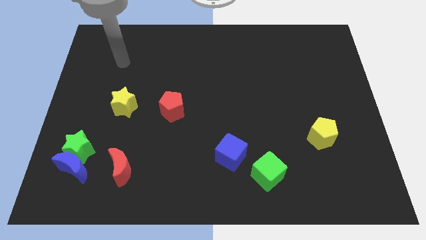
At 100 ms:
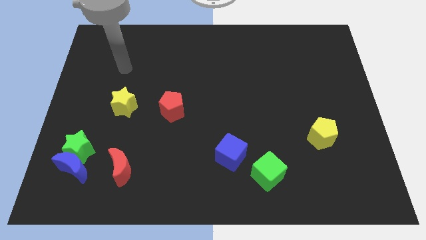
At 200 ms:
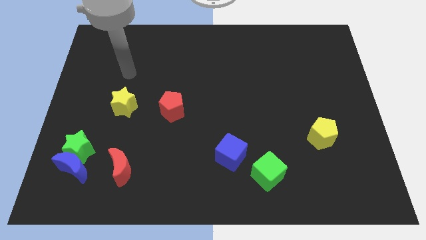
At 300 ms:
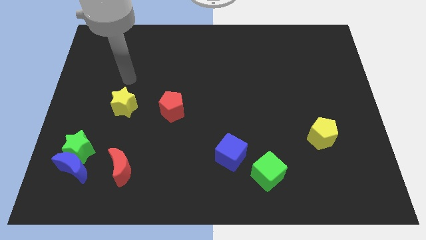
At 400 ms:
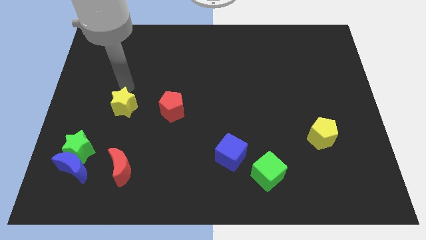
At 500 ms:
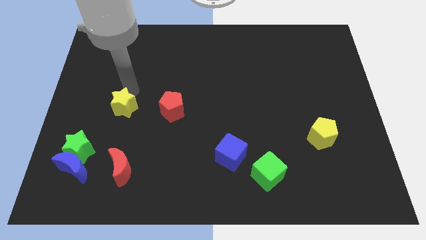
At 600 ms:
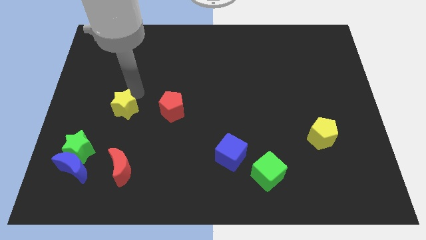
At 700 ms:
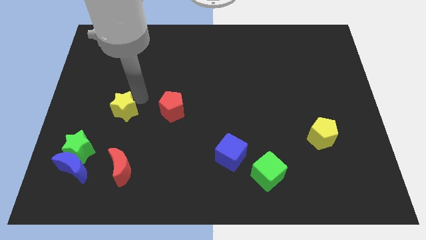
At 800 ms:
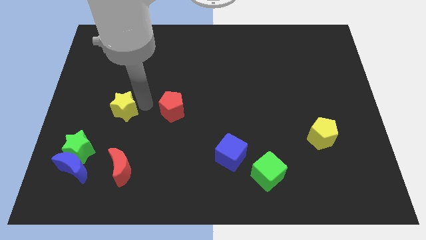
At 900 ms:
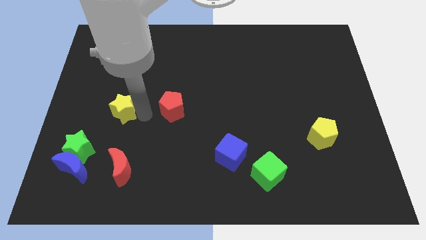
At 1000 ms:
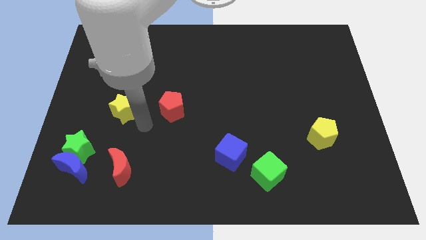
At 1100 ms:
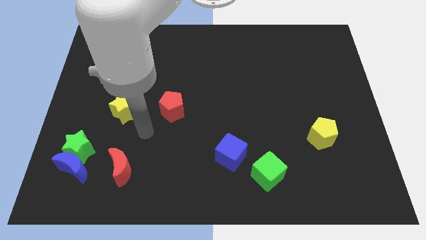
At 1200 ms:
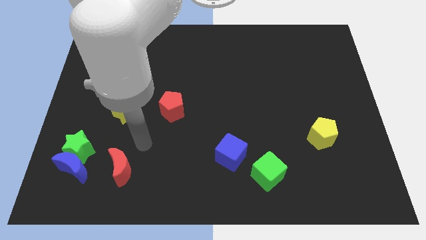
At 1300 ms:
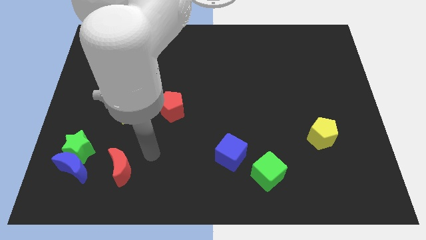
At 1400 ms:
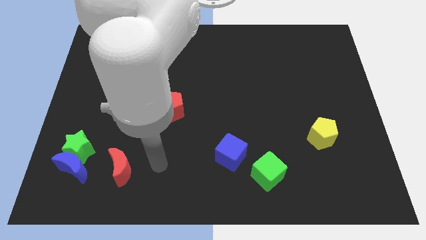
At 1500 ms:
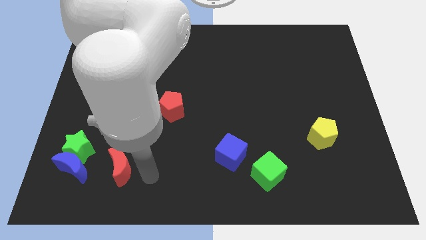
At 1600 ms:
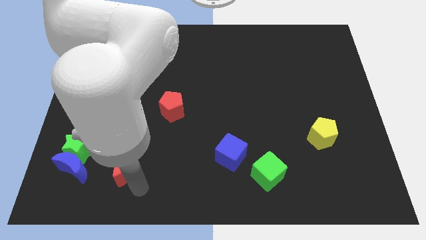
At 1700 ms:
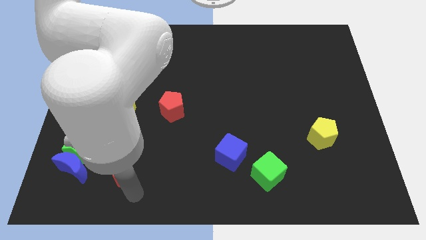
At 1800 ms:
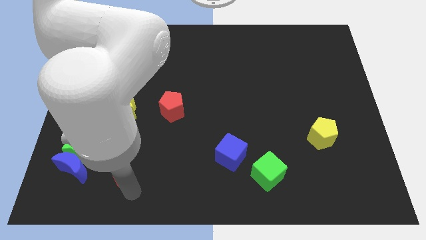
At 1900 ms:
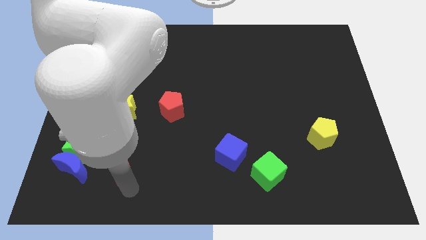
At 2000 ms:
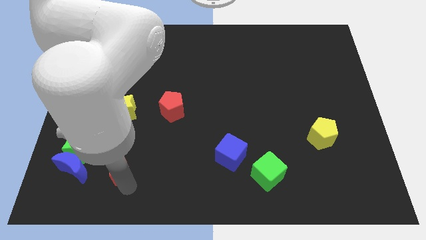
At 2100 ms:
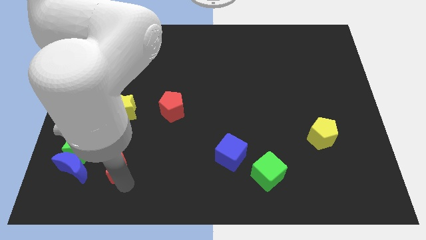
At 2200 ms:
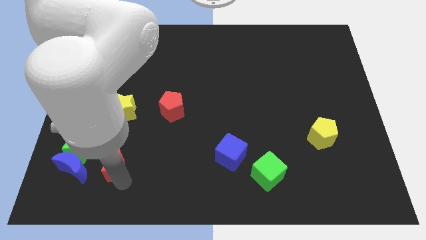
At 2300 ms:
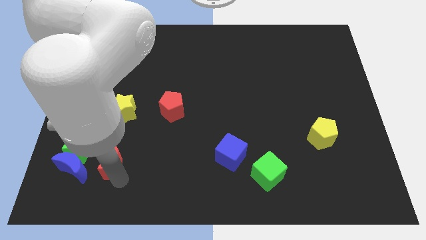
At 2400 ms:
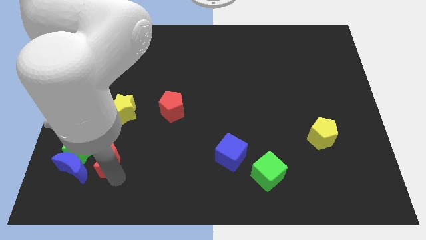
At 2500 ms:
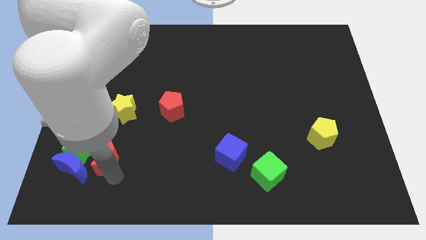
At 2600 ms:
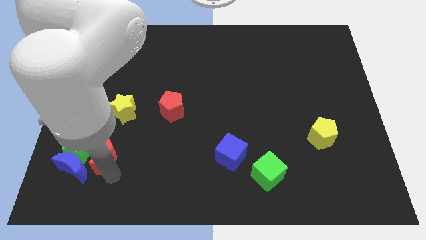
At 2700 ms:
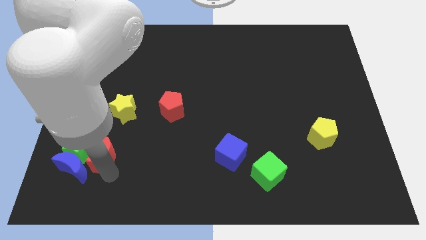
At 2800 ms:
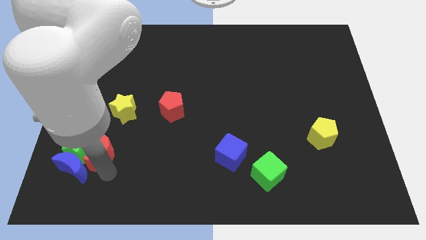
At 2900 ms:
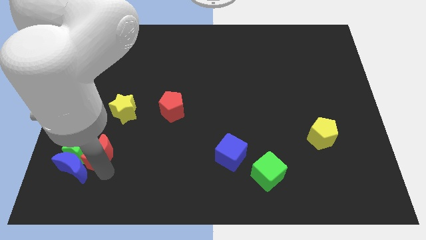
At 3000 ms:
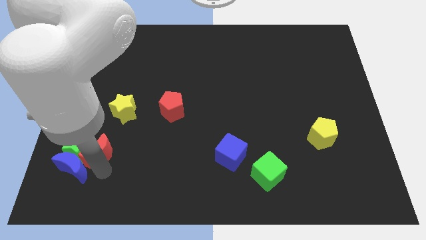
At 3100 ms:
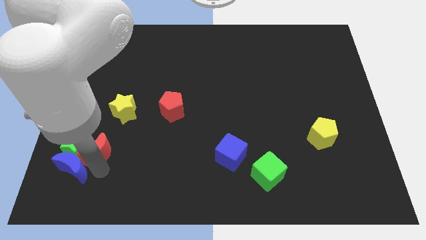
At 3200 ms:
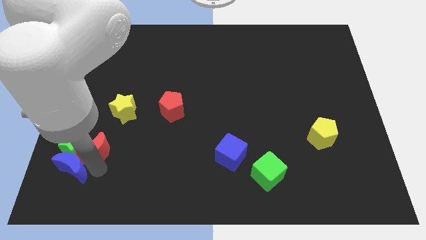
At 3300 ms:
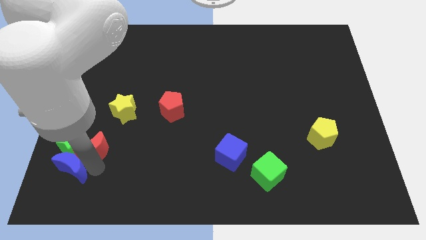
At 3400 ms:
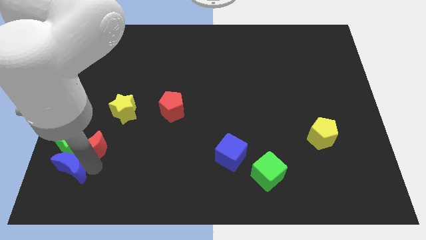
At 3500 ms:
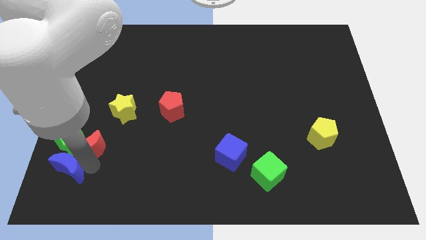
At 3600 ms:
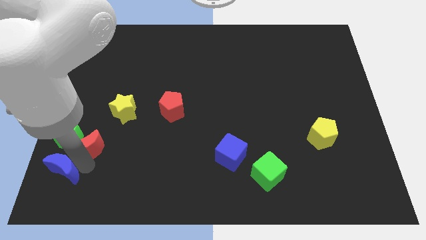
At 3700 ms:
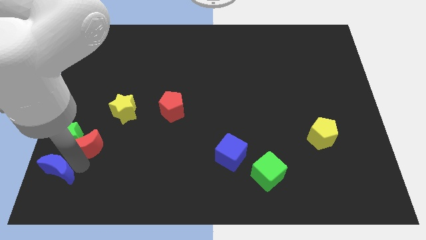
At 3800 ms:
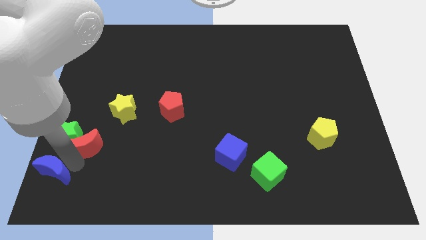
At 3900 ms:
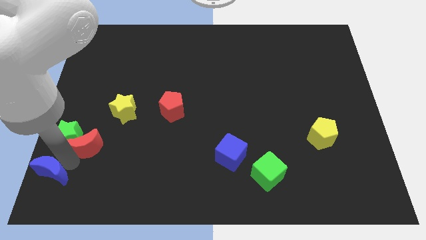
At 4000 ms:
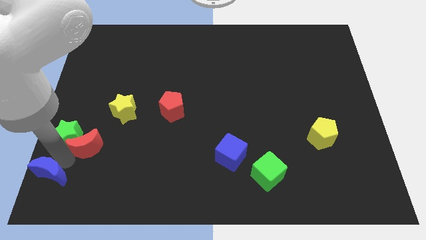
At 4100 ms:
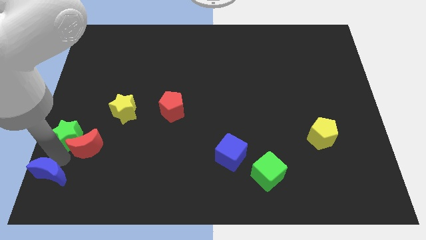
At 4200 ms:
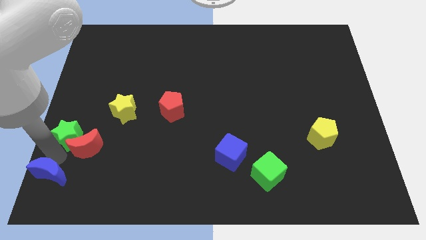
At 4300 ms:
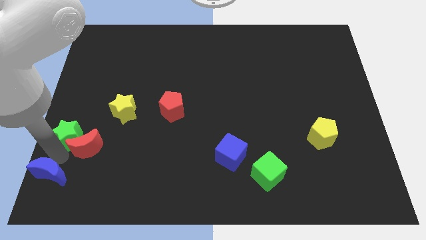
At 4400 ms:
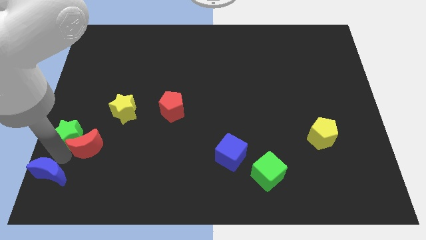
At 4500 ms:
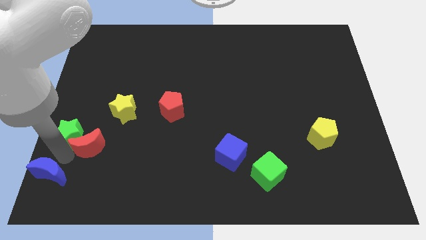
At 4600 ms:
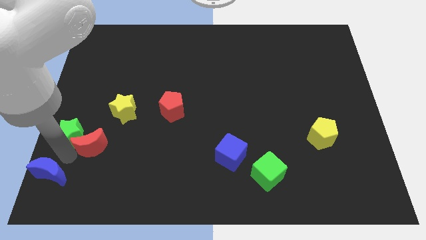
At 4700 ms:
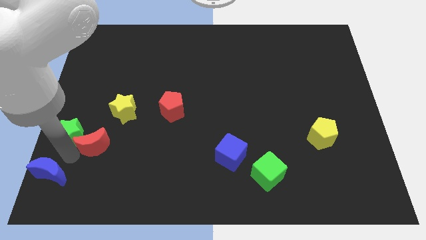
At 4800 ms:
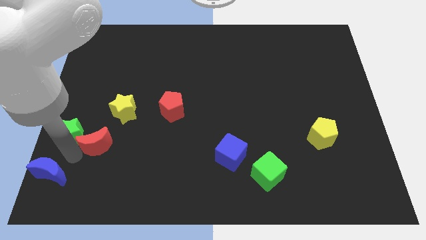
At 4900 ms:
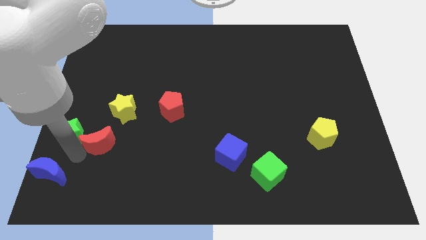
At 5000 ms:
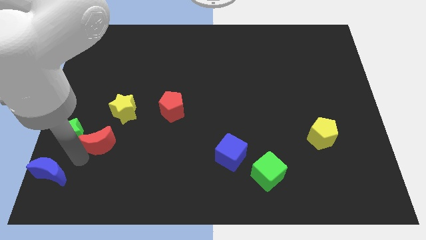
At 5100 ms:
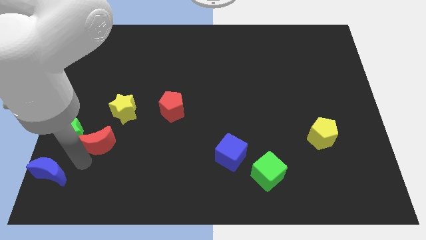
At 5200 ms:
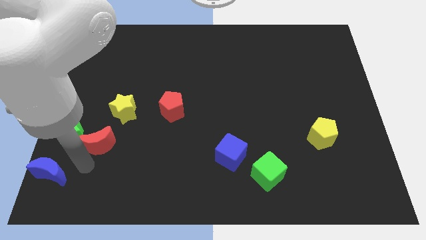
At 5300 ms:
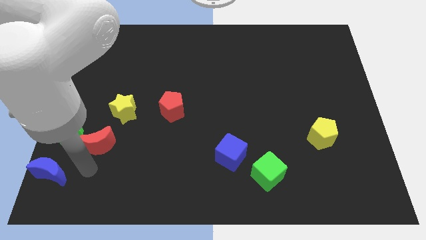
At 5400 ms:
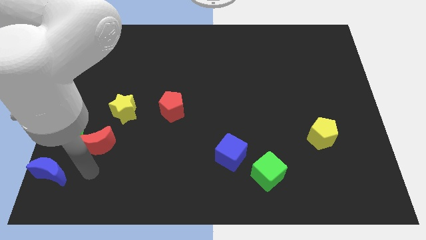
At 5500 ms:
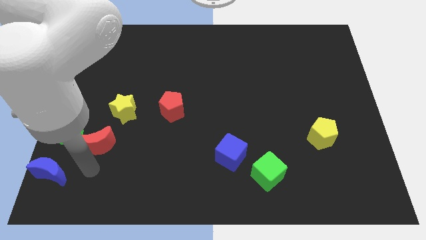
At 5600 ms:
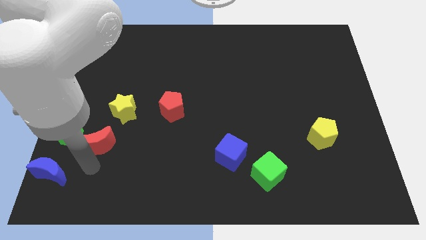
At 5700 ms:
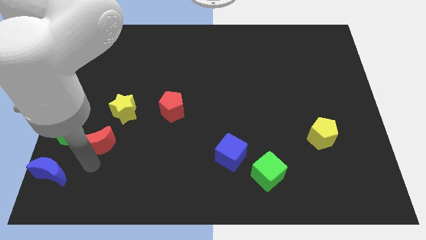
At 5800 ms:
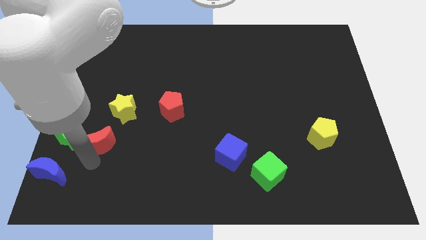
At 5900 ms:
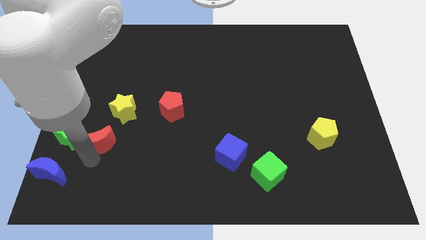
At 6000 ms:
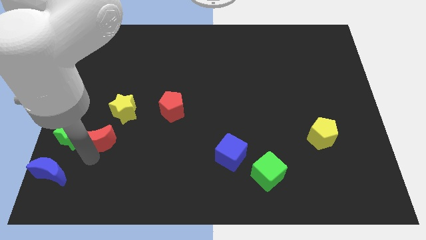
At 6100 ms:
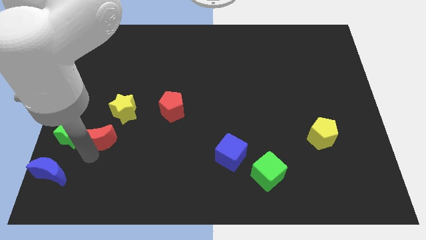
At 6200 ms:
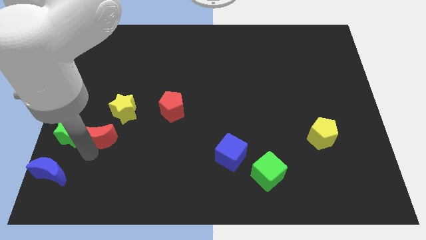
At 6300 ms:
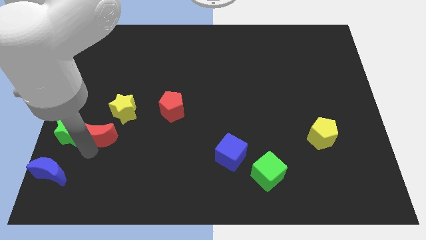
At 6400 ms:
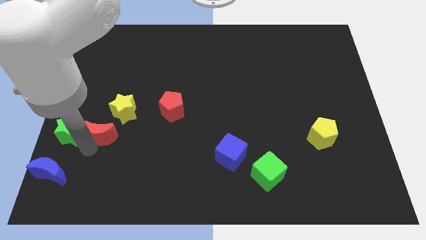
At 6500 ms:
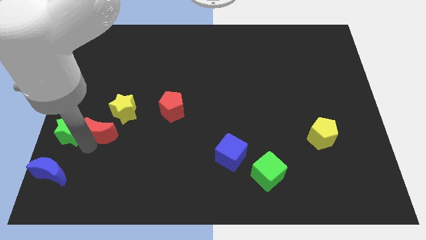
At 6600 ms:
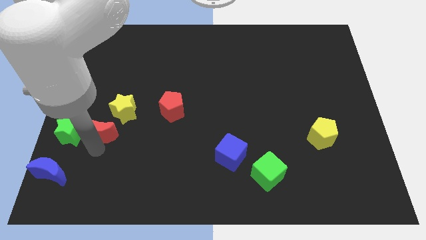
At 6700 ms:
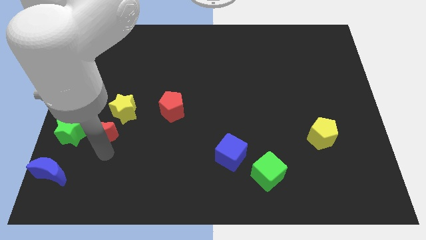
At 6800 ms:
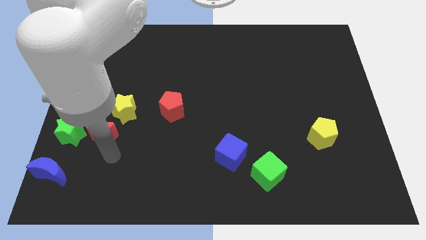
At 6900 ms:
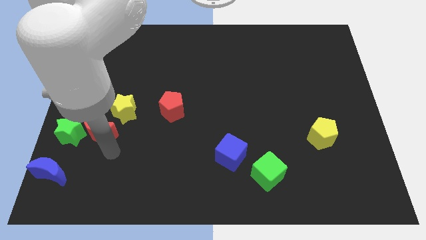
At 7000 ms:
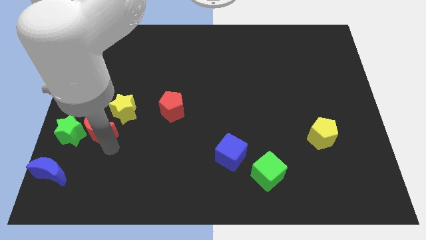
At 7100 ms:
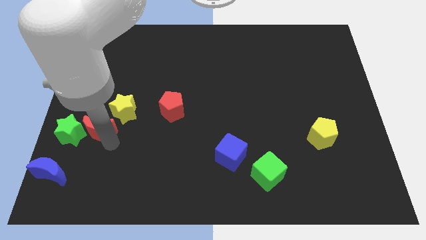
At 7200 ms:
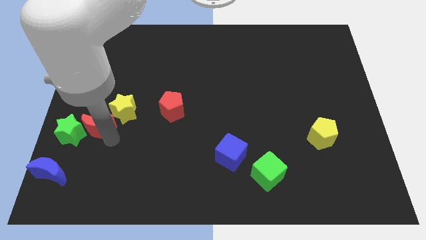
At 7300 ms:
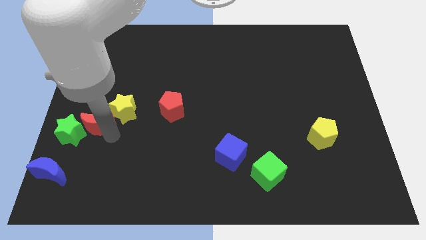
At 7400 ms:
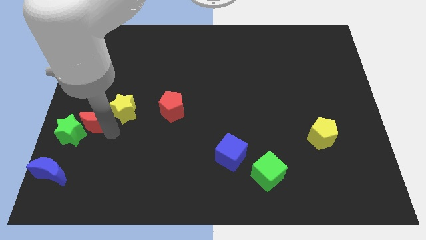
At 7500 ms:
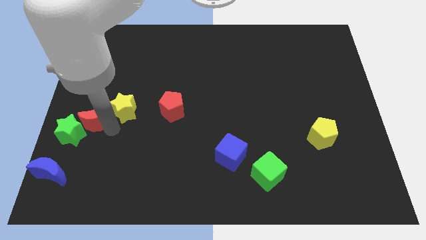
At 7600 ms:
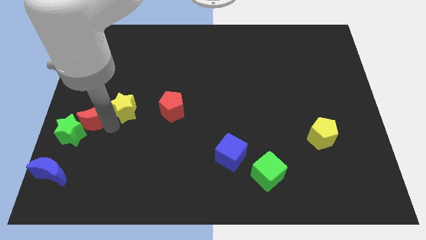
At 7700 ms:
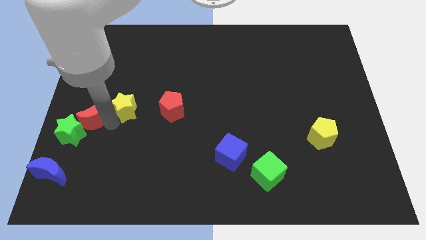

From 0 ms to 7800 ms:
slide the red moon to the top side of the green star

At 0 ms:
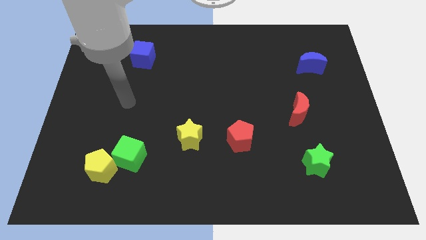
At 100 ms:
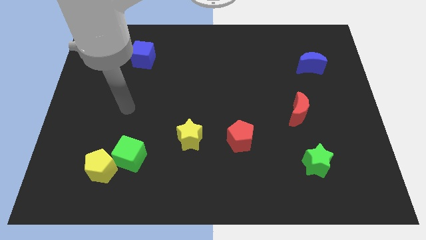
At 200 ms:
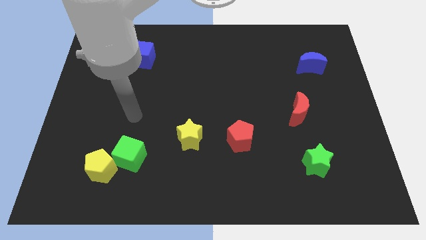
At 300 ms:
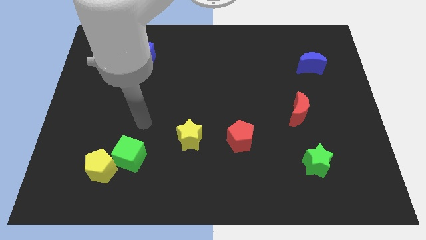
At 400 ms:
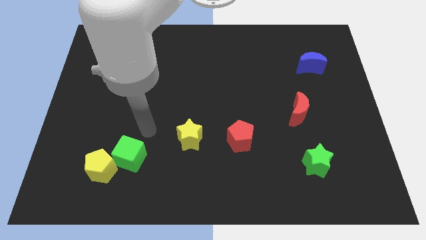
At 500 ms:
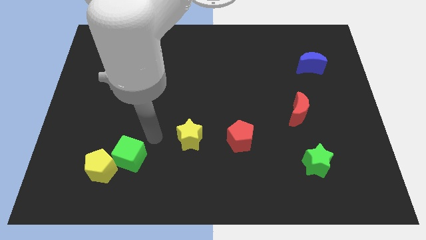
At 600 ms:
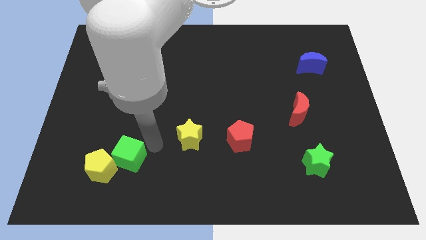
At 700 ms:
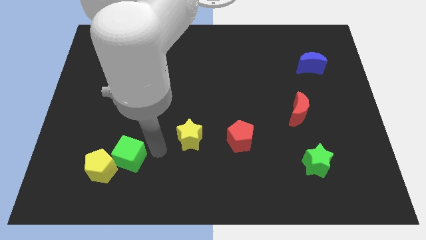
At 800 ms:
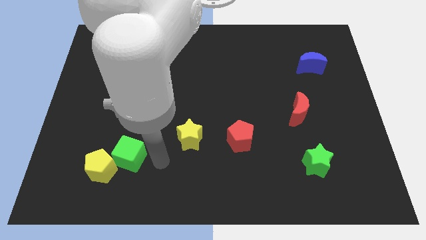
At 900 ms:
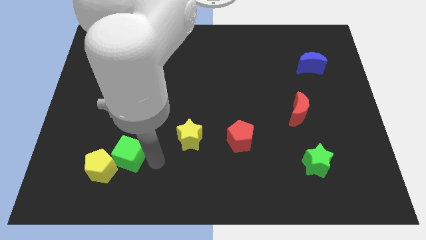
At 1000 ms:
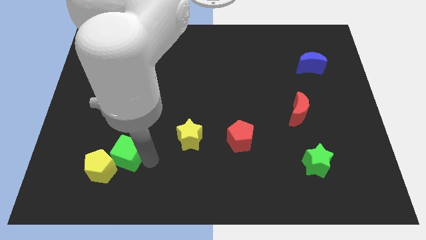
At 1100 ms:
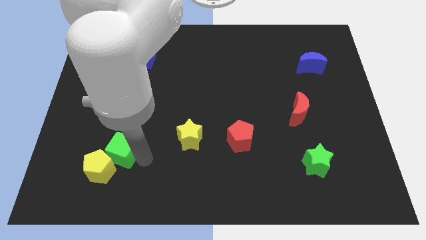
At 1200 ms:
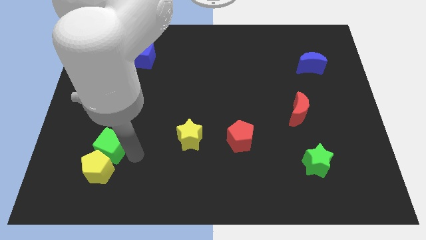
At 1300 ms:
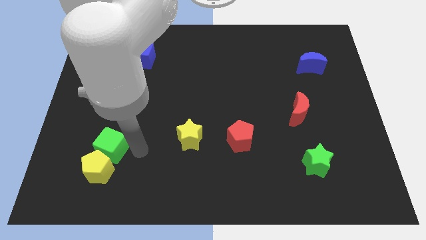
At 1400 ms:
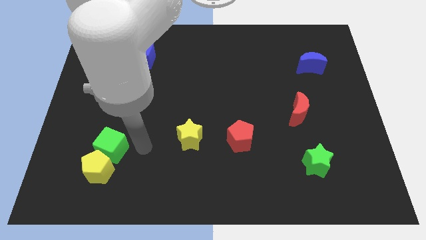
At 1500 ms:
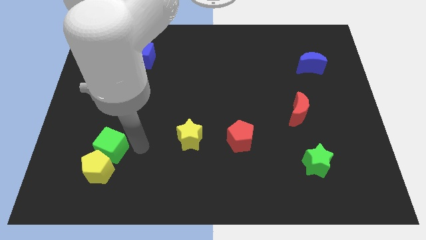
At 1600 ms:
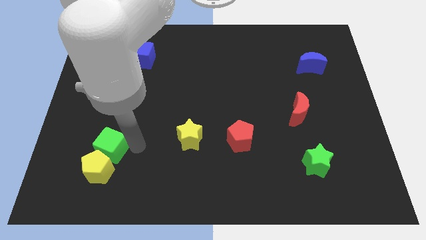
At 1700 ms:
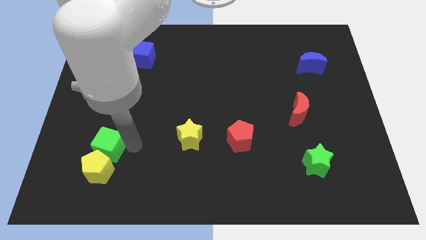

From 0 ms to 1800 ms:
move the green cube to the top left of the yellow pentagon
